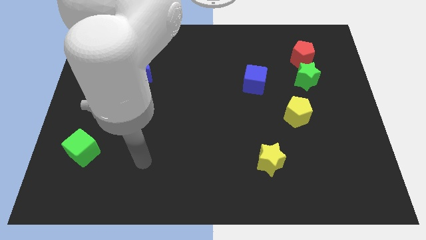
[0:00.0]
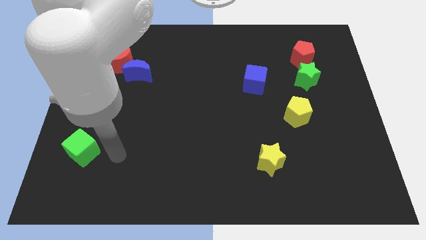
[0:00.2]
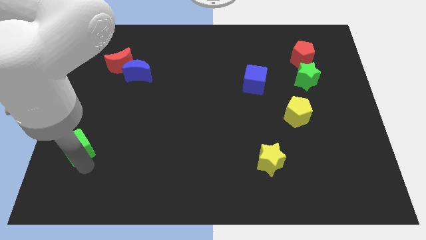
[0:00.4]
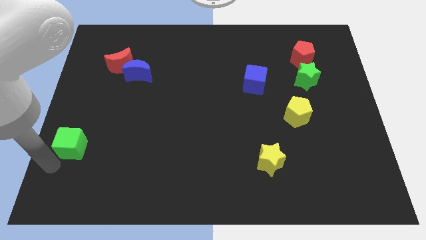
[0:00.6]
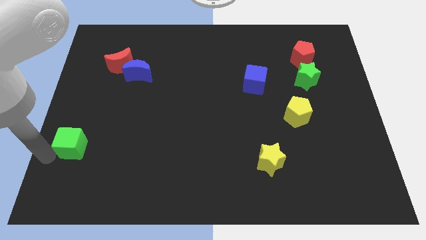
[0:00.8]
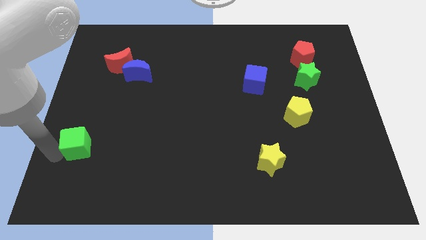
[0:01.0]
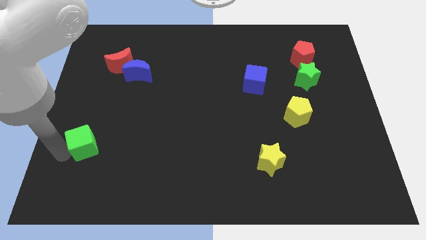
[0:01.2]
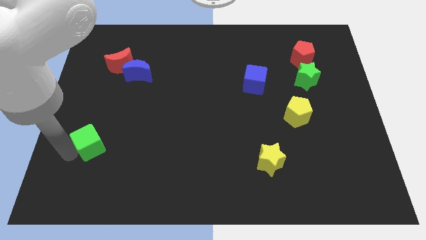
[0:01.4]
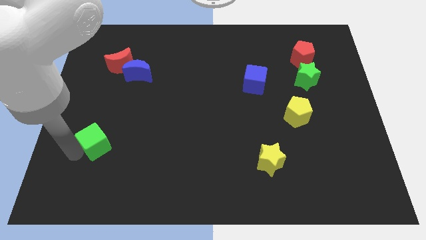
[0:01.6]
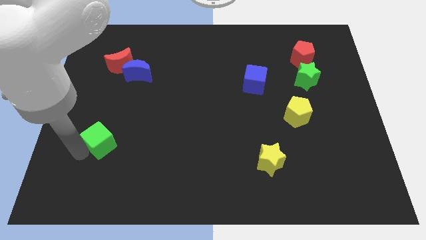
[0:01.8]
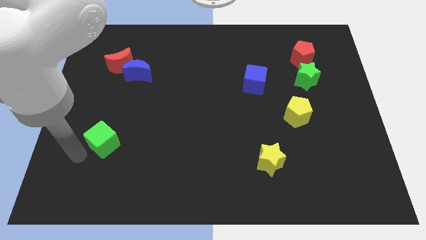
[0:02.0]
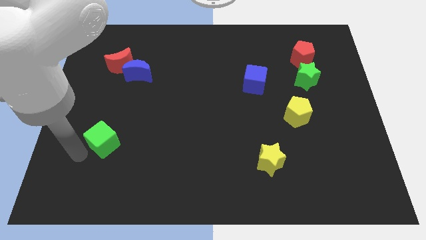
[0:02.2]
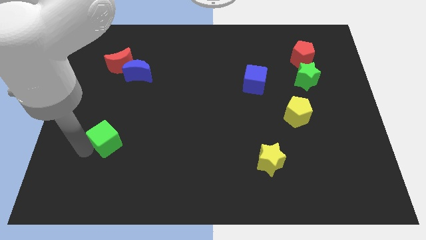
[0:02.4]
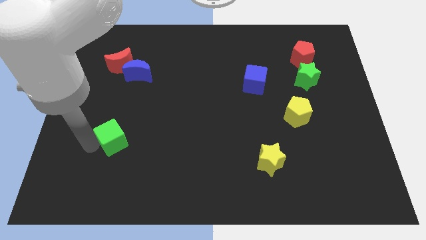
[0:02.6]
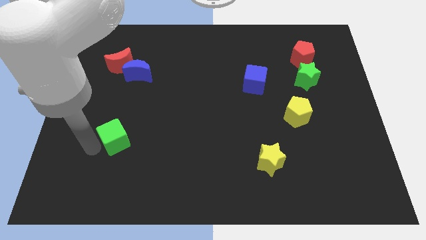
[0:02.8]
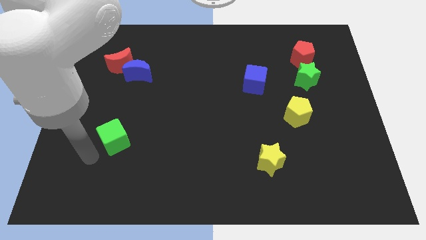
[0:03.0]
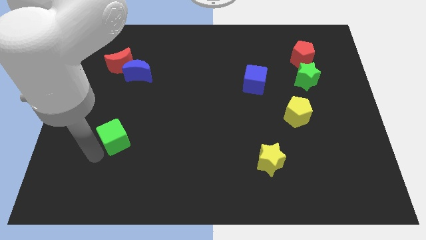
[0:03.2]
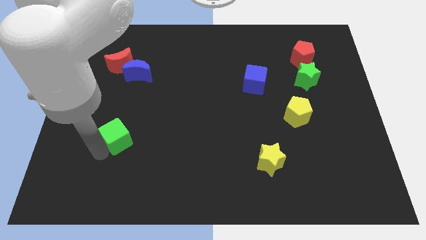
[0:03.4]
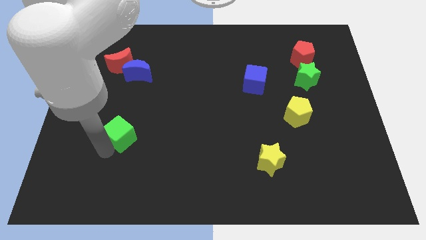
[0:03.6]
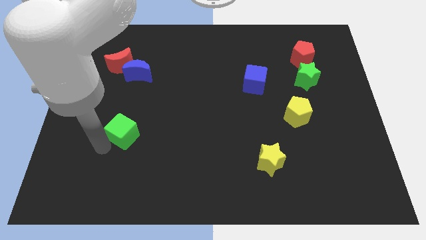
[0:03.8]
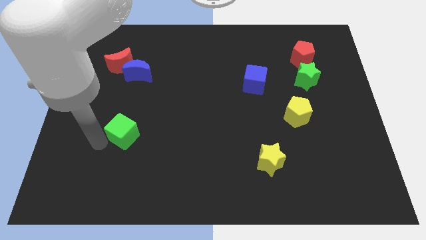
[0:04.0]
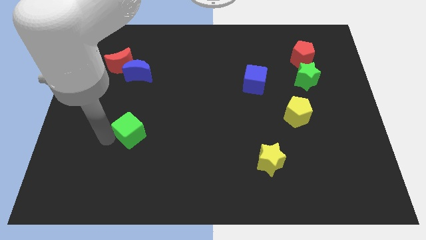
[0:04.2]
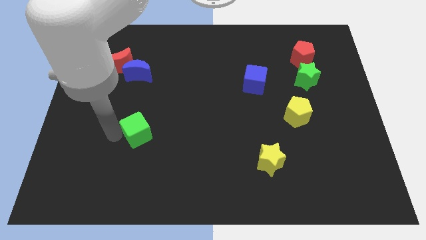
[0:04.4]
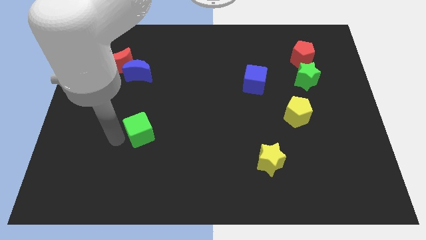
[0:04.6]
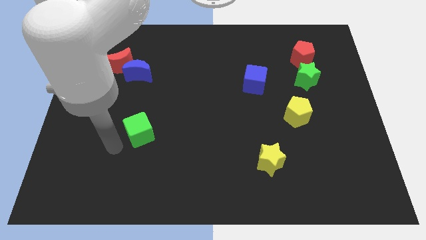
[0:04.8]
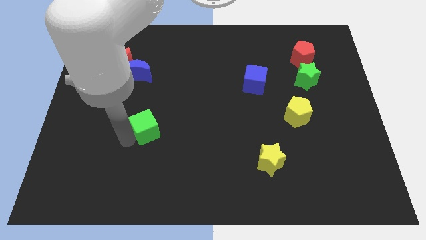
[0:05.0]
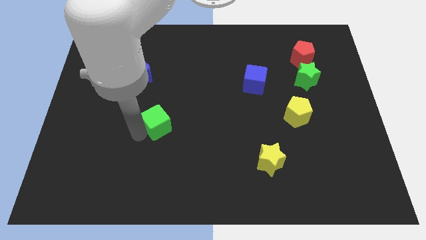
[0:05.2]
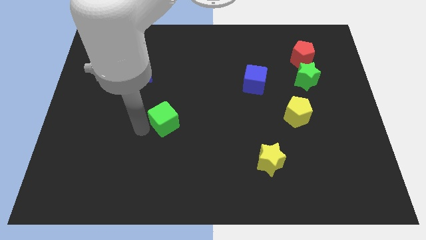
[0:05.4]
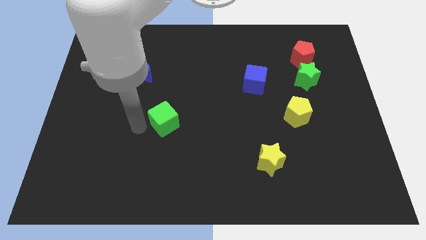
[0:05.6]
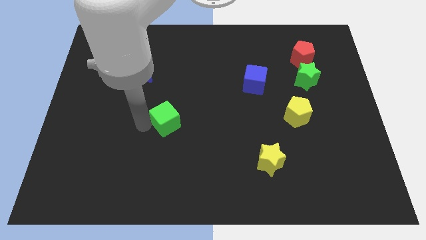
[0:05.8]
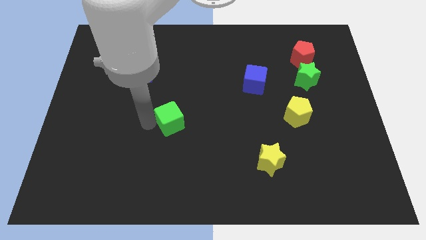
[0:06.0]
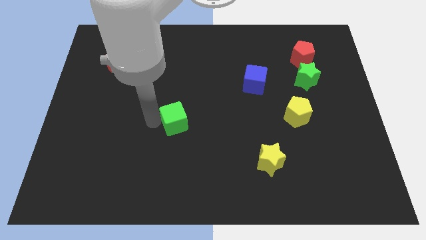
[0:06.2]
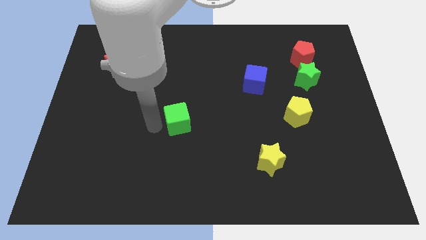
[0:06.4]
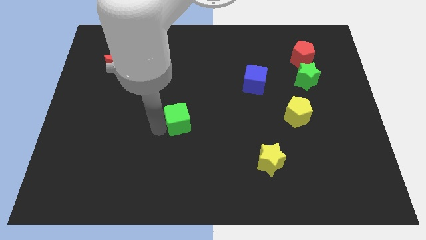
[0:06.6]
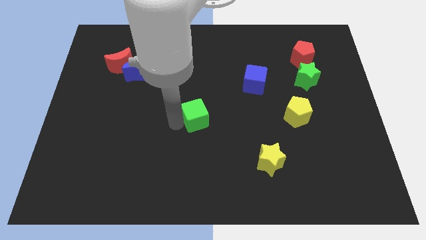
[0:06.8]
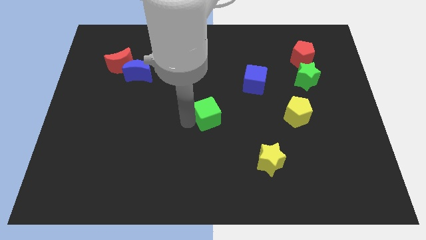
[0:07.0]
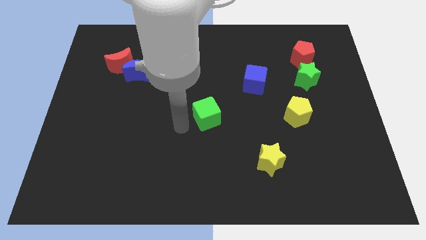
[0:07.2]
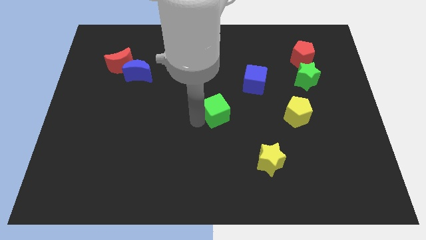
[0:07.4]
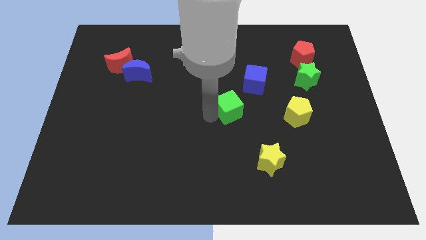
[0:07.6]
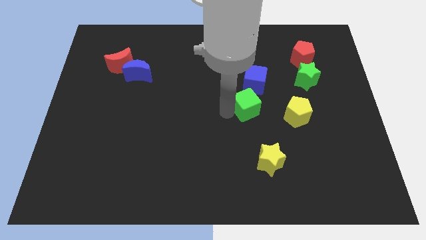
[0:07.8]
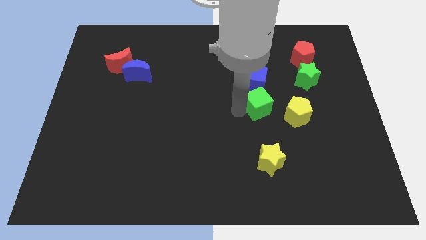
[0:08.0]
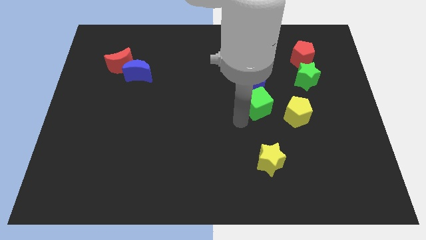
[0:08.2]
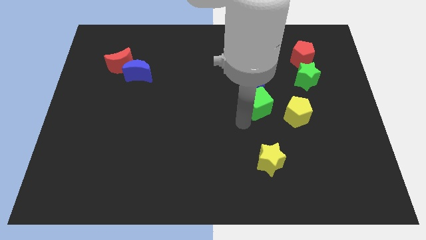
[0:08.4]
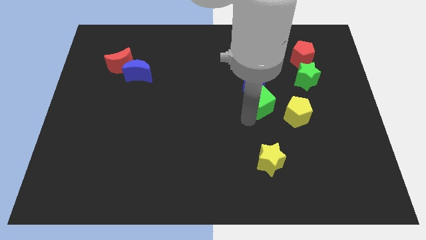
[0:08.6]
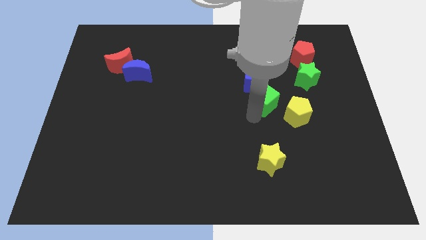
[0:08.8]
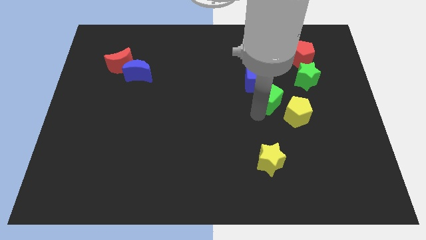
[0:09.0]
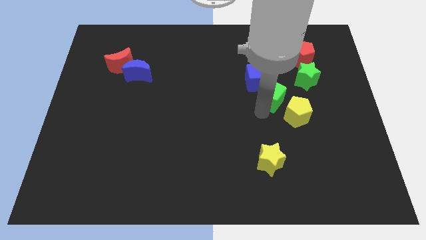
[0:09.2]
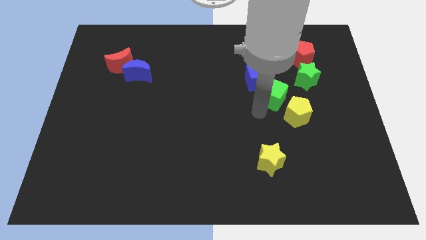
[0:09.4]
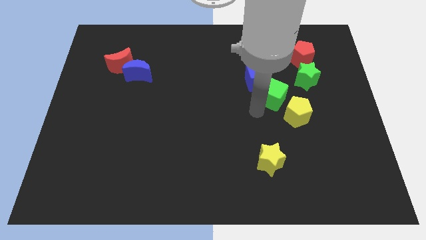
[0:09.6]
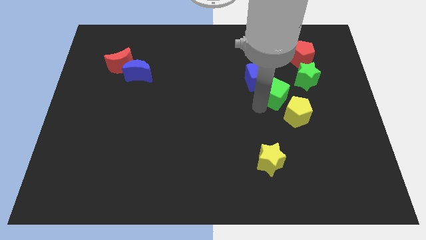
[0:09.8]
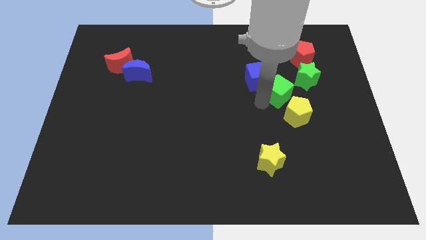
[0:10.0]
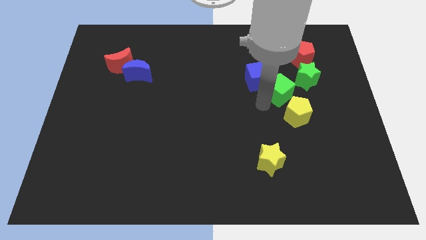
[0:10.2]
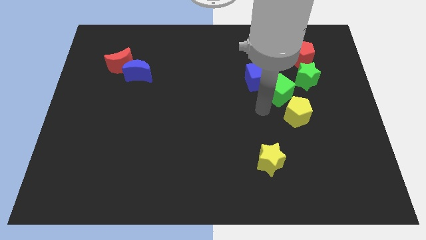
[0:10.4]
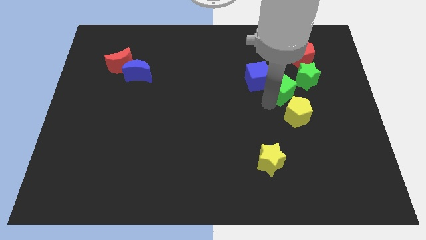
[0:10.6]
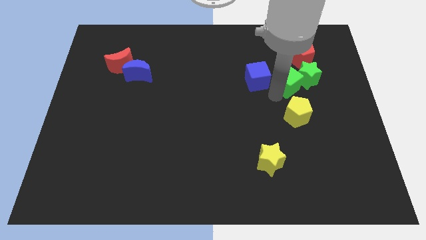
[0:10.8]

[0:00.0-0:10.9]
slide the green cube close to the green star

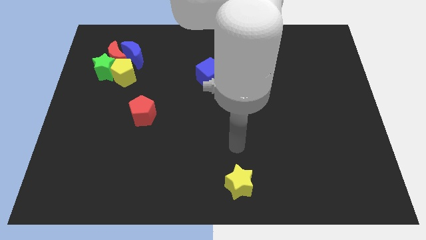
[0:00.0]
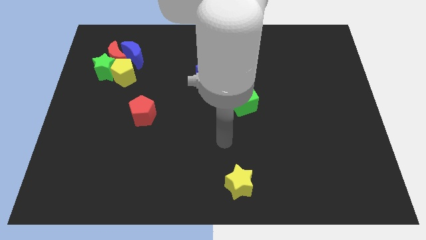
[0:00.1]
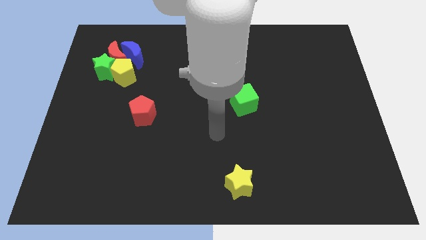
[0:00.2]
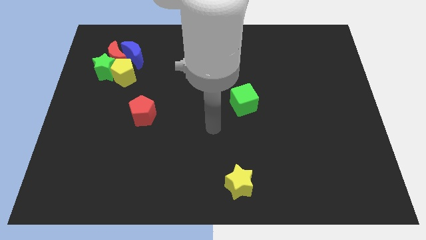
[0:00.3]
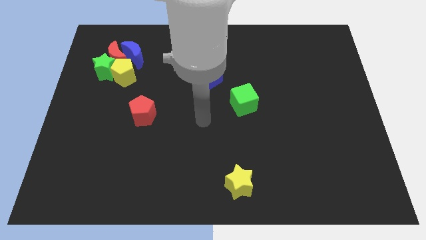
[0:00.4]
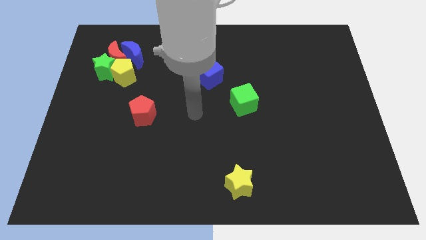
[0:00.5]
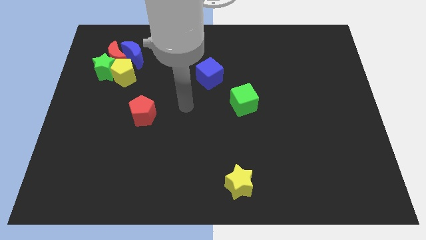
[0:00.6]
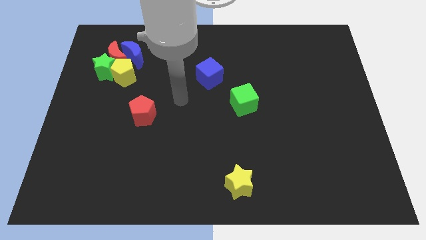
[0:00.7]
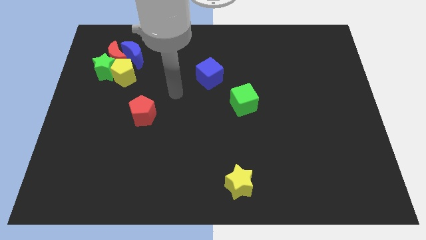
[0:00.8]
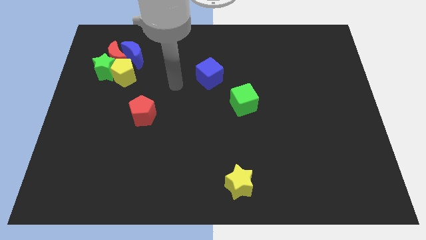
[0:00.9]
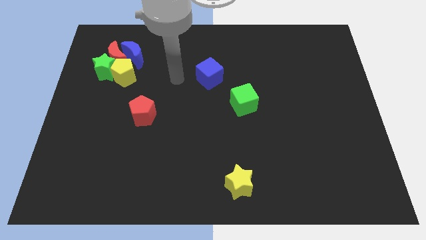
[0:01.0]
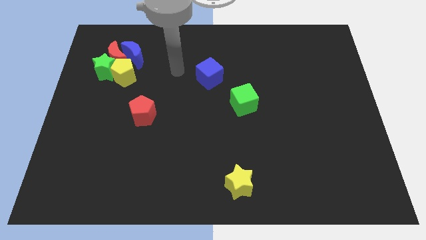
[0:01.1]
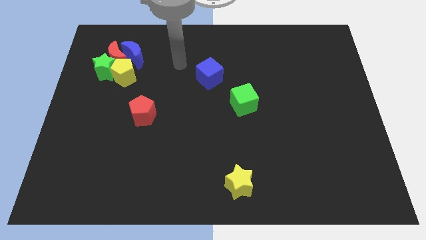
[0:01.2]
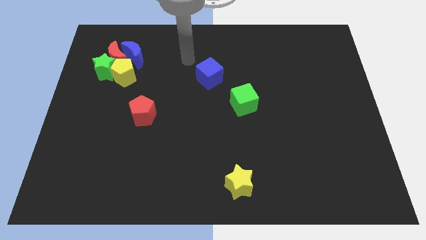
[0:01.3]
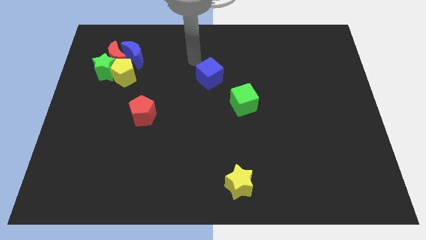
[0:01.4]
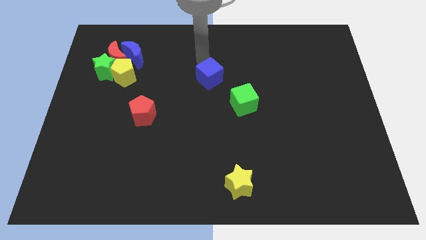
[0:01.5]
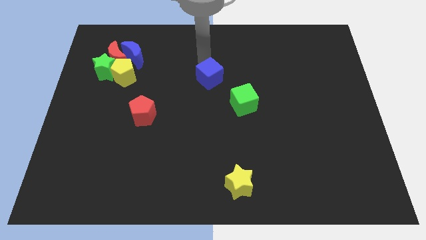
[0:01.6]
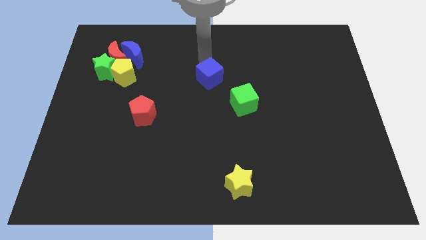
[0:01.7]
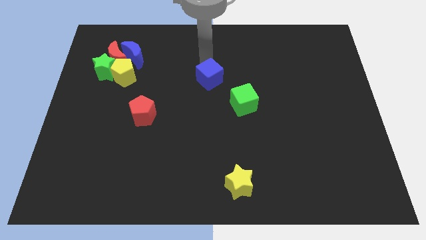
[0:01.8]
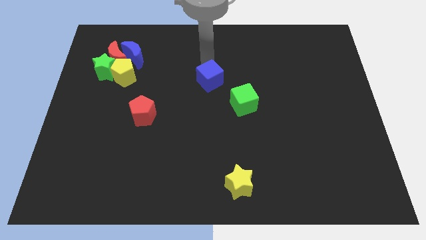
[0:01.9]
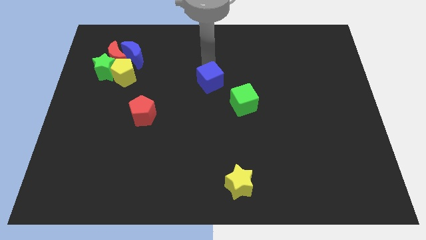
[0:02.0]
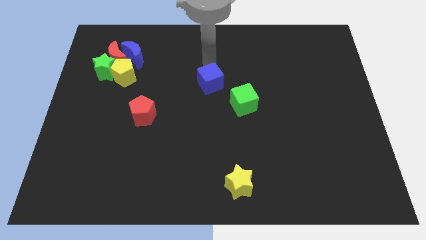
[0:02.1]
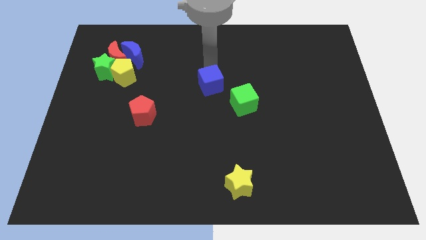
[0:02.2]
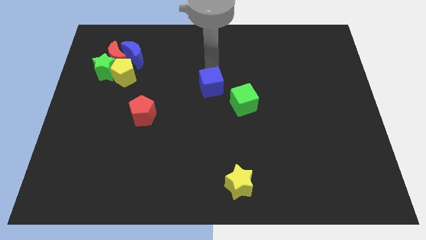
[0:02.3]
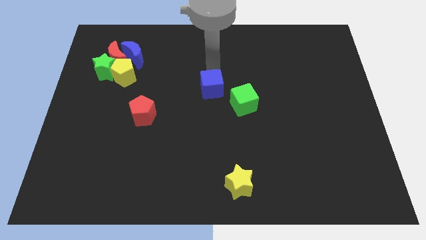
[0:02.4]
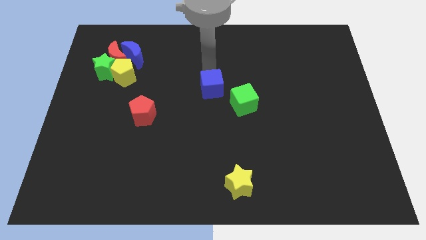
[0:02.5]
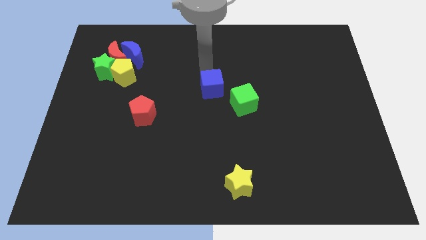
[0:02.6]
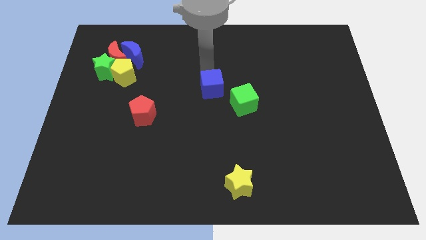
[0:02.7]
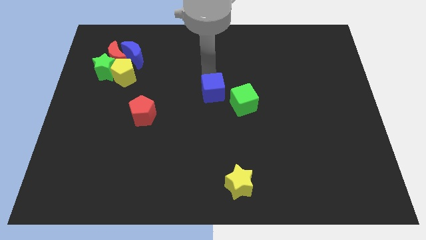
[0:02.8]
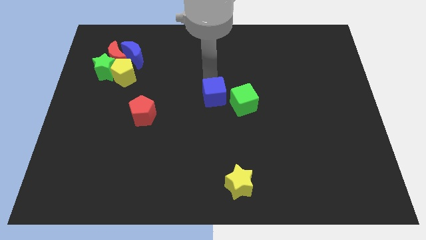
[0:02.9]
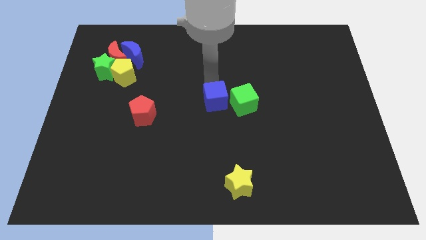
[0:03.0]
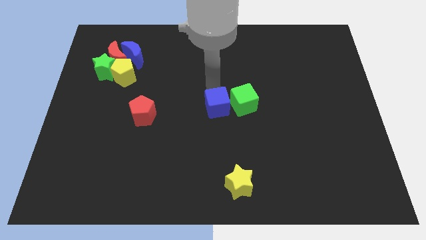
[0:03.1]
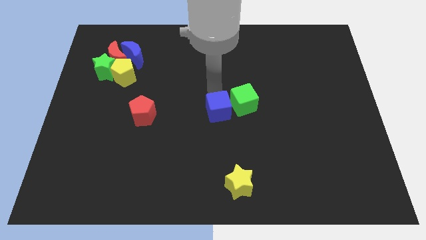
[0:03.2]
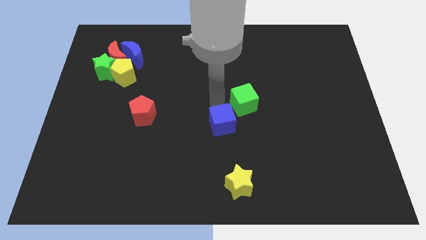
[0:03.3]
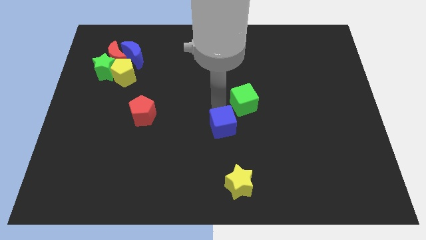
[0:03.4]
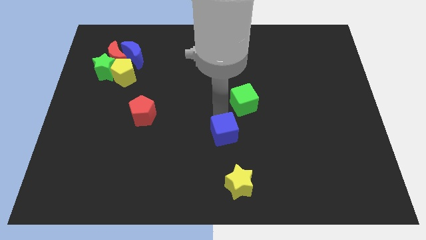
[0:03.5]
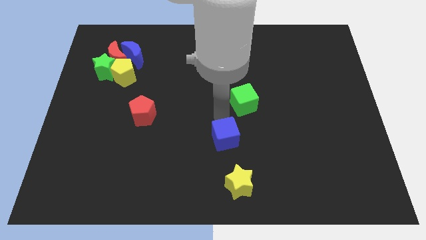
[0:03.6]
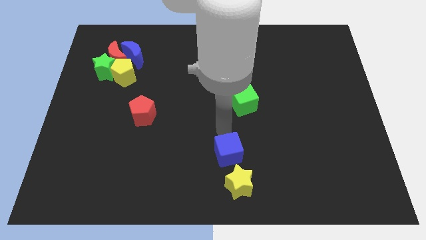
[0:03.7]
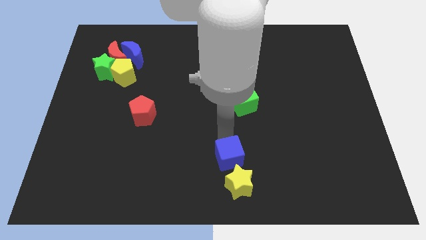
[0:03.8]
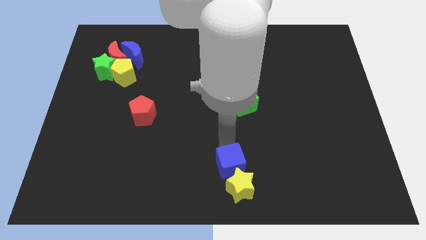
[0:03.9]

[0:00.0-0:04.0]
move the blue cube next to the yellow star
